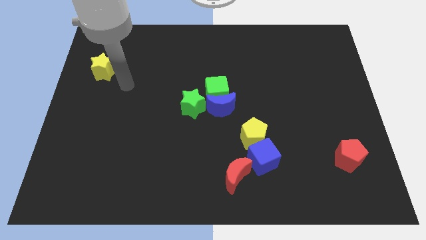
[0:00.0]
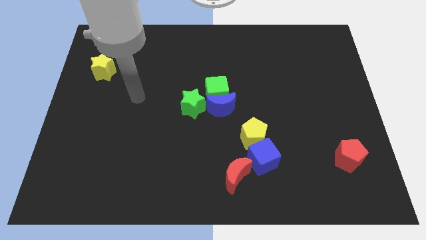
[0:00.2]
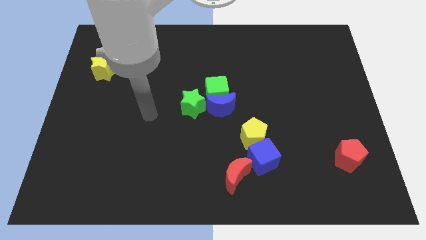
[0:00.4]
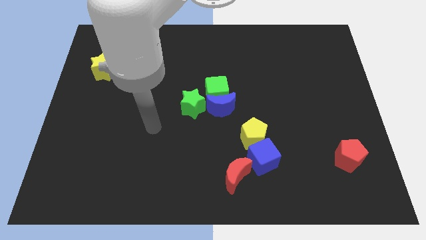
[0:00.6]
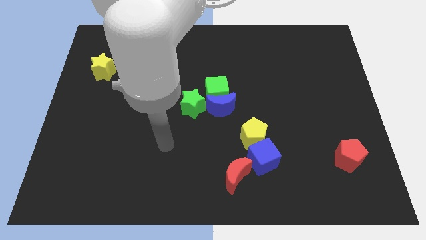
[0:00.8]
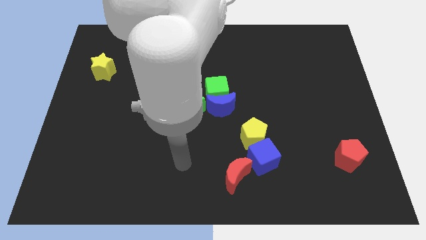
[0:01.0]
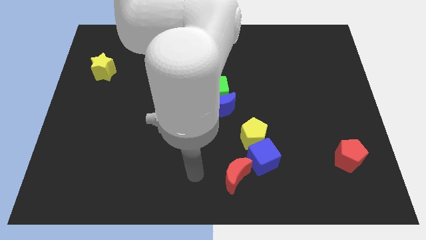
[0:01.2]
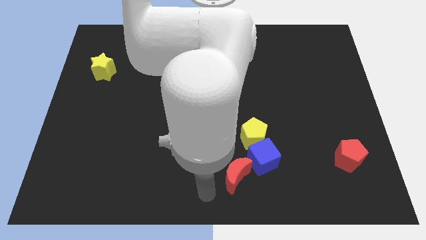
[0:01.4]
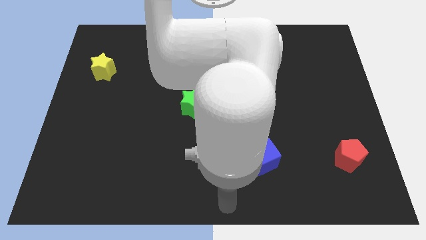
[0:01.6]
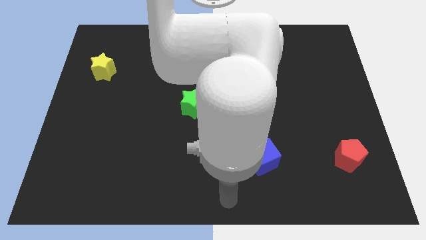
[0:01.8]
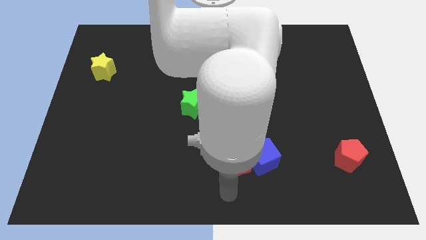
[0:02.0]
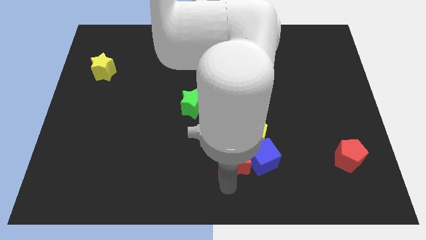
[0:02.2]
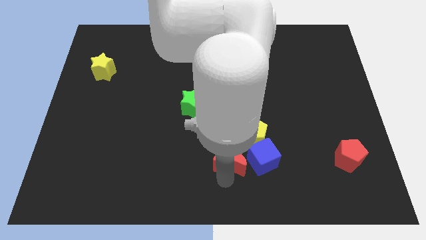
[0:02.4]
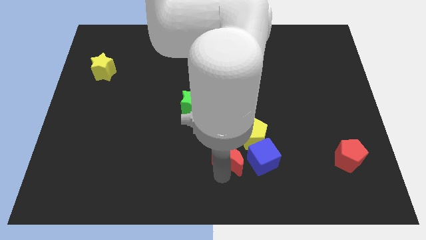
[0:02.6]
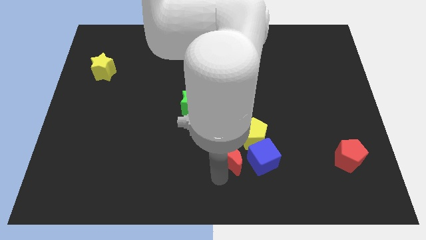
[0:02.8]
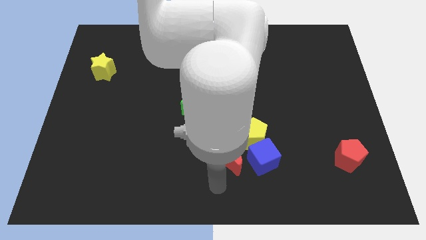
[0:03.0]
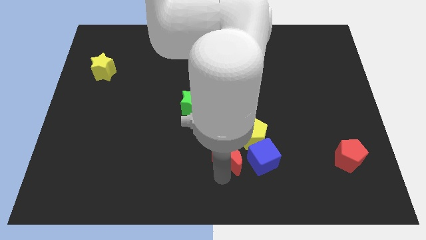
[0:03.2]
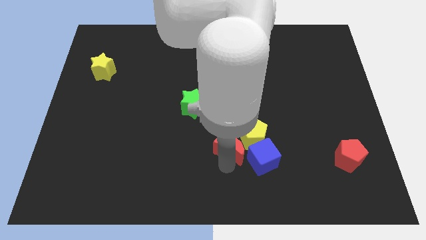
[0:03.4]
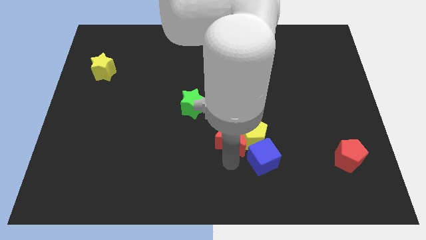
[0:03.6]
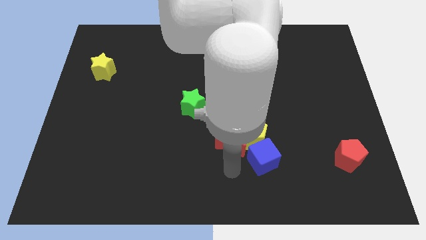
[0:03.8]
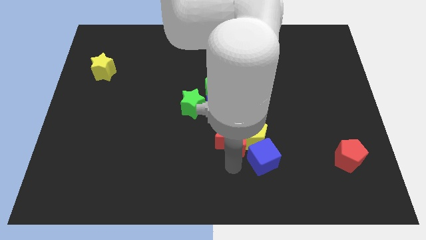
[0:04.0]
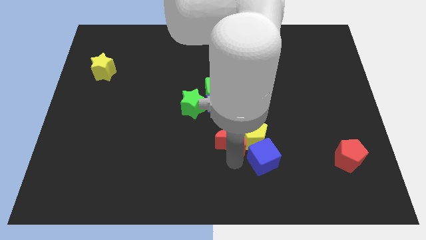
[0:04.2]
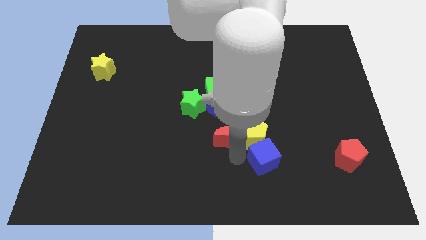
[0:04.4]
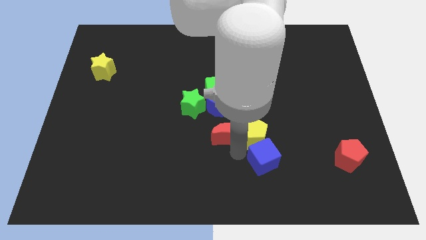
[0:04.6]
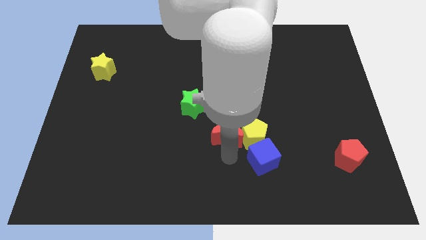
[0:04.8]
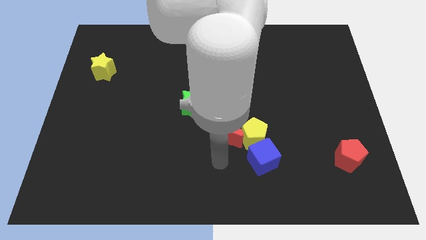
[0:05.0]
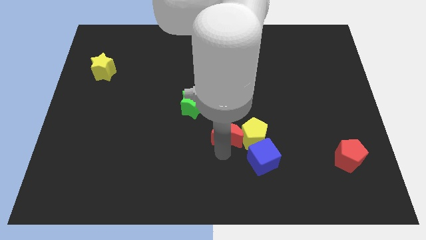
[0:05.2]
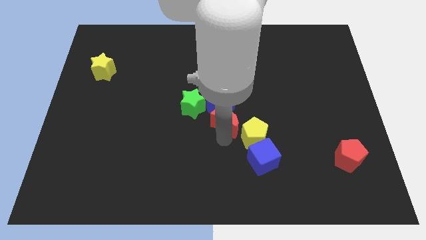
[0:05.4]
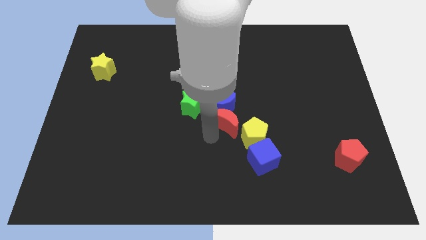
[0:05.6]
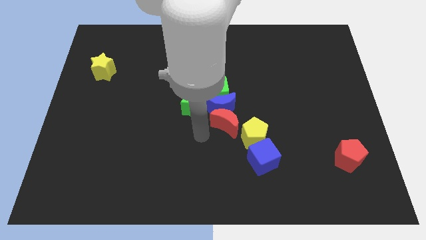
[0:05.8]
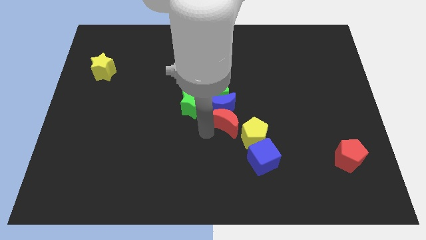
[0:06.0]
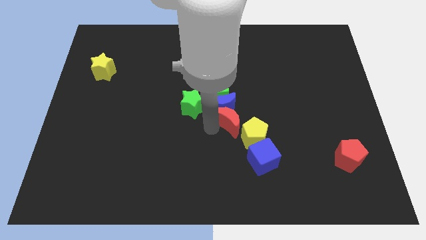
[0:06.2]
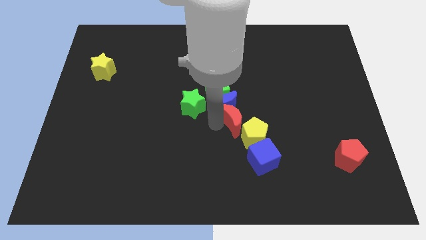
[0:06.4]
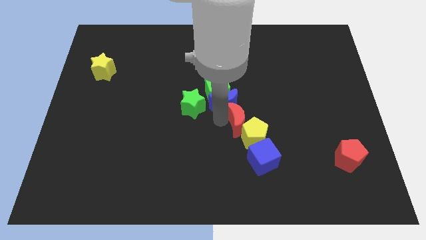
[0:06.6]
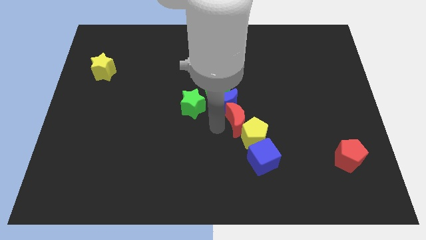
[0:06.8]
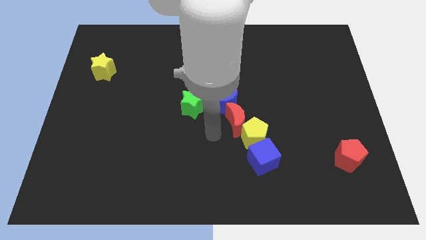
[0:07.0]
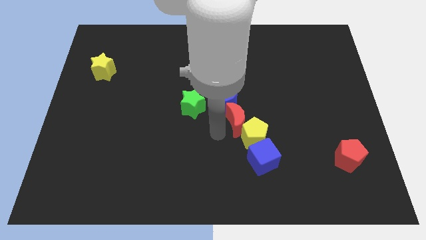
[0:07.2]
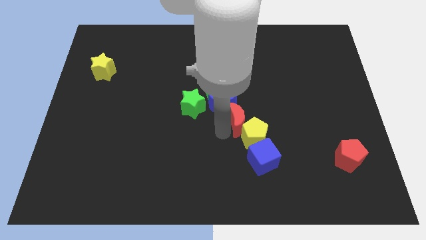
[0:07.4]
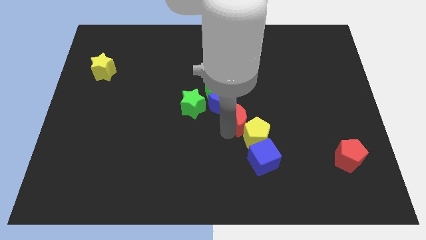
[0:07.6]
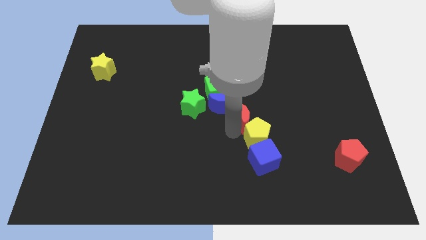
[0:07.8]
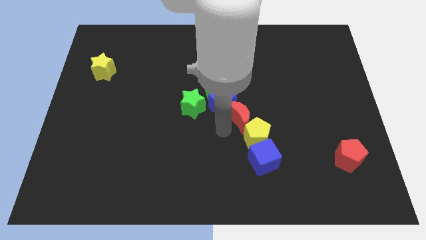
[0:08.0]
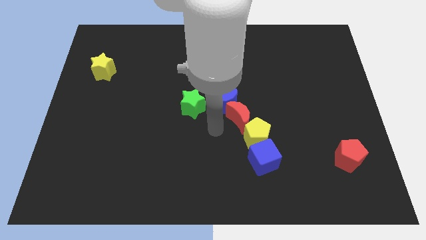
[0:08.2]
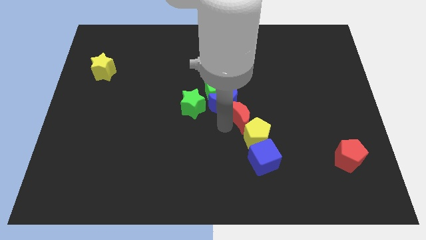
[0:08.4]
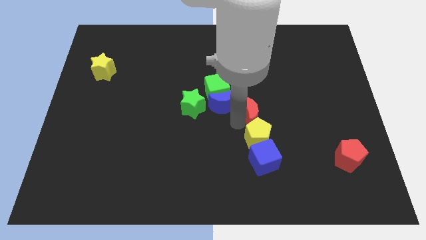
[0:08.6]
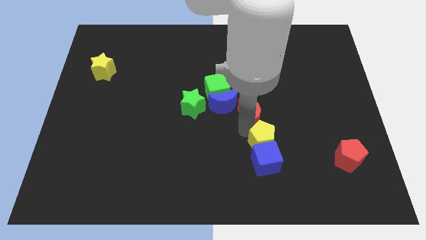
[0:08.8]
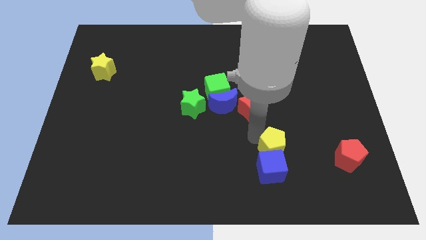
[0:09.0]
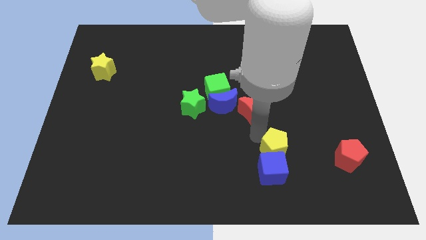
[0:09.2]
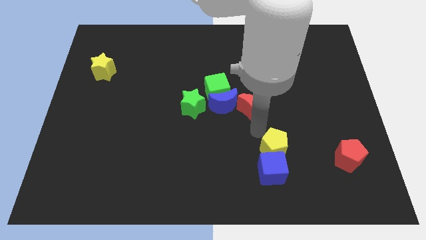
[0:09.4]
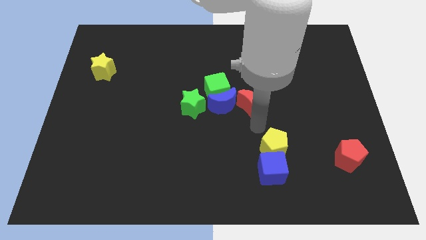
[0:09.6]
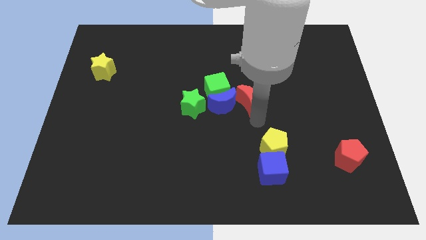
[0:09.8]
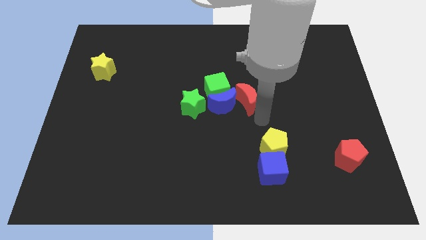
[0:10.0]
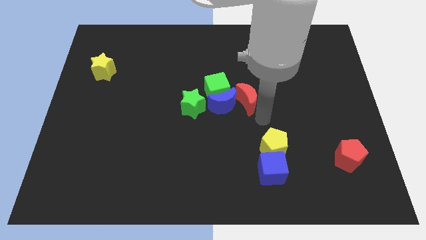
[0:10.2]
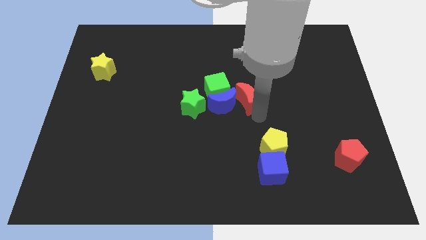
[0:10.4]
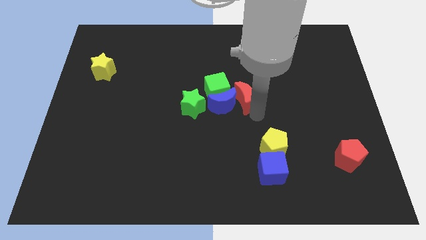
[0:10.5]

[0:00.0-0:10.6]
push the red moon up

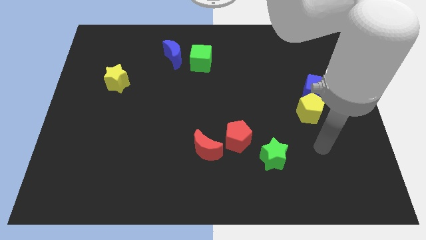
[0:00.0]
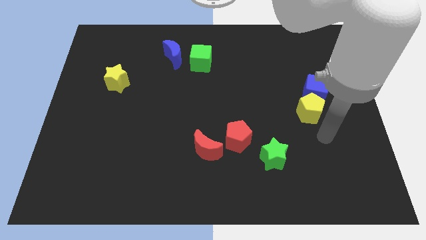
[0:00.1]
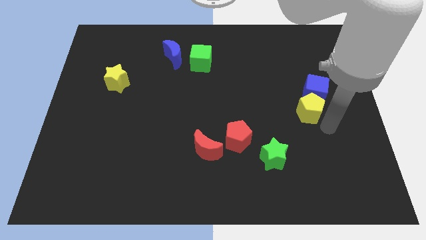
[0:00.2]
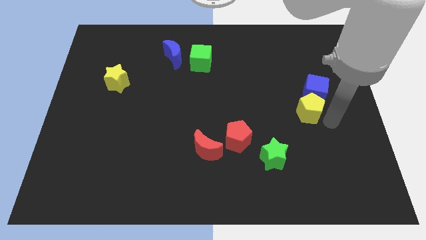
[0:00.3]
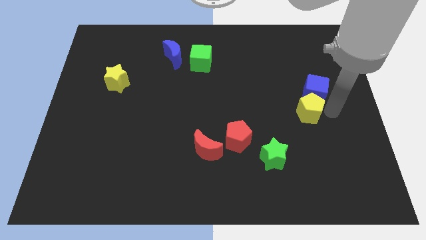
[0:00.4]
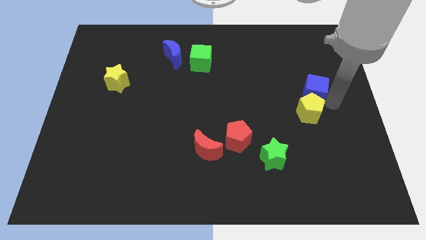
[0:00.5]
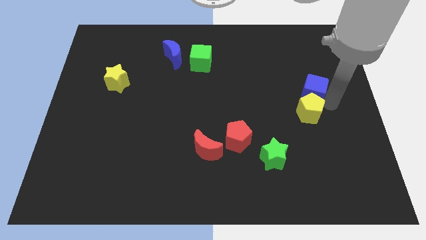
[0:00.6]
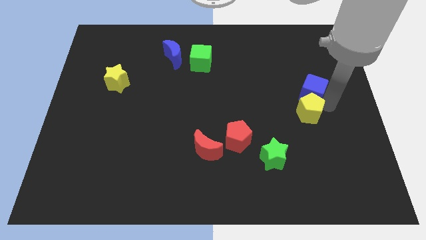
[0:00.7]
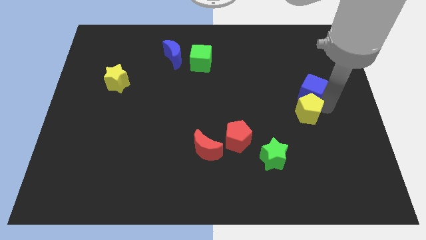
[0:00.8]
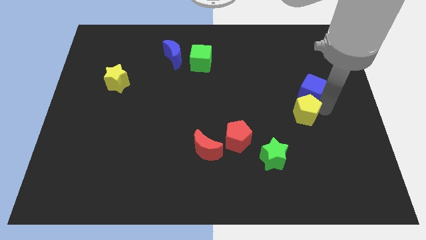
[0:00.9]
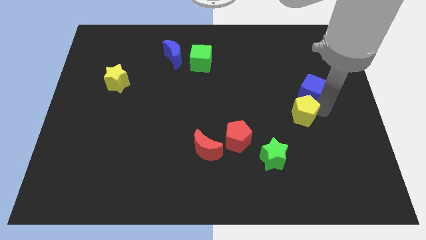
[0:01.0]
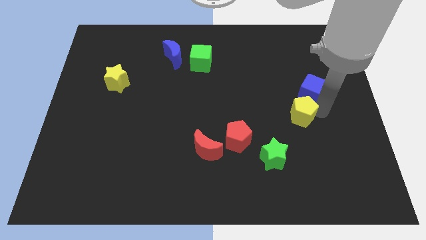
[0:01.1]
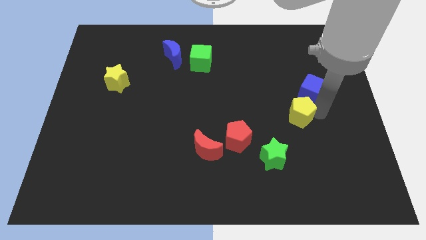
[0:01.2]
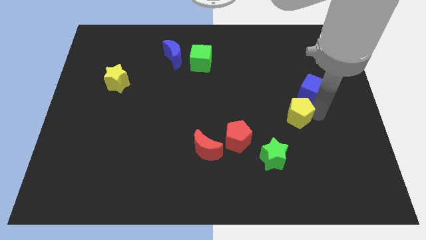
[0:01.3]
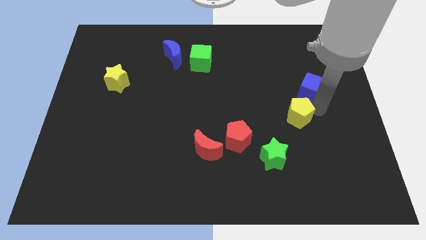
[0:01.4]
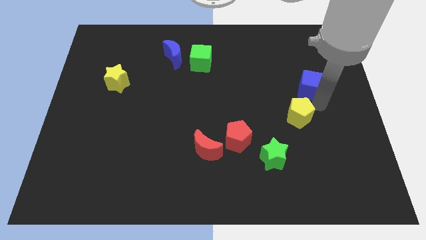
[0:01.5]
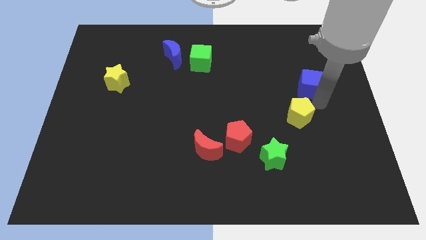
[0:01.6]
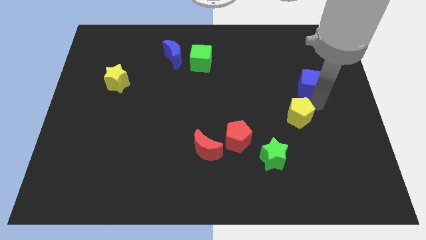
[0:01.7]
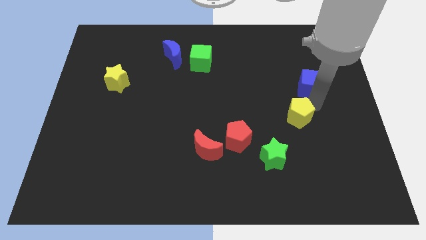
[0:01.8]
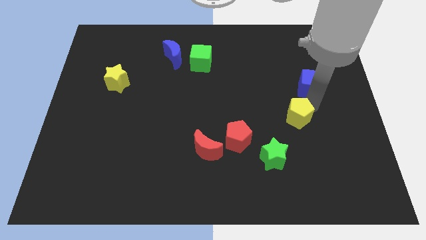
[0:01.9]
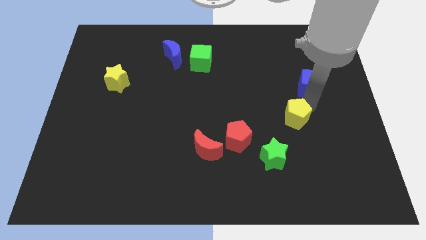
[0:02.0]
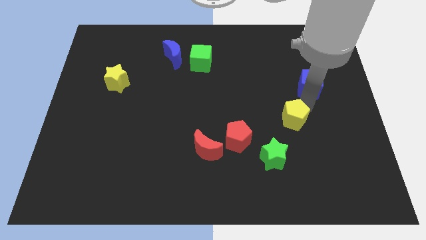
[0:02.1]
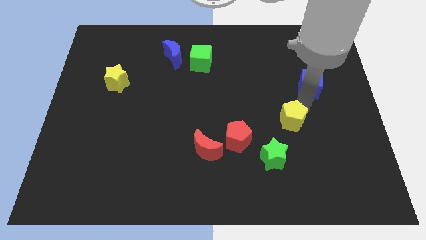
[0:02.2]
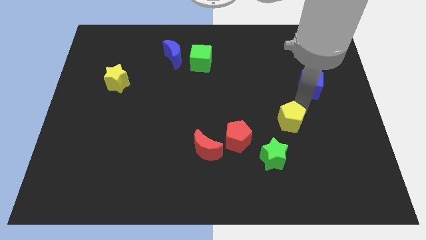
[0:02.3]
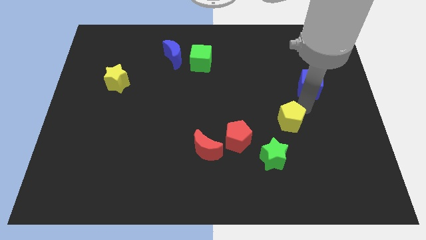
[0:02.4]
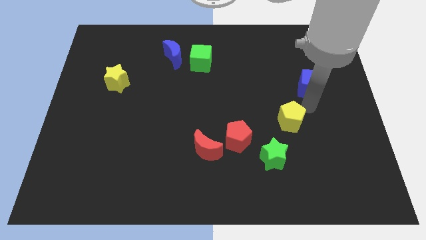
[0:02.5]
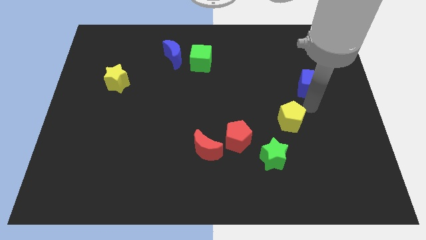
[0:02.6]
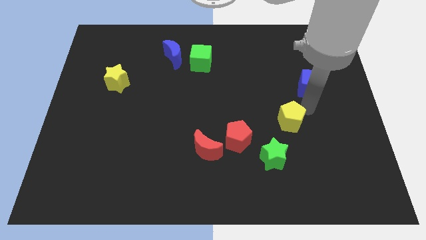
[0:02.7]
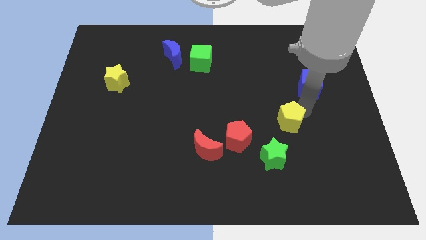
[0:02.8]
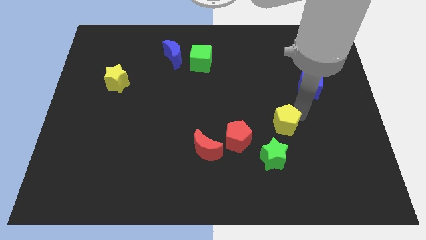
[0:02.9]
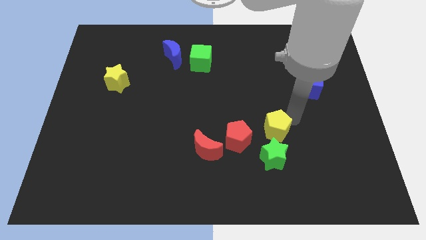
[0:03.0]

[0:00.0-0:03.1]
move the yellow pentagon downwards and to the left somewhat
